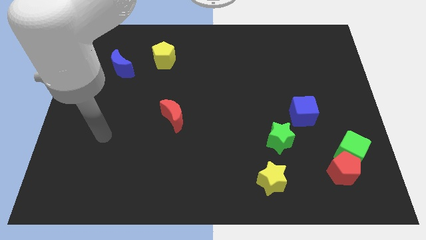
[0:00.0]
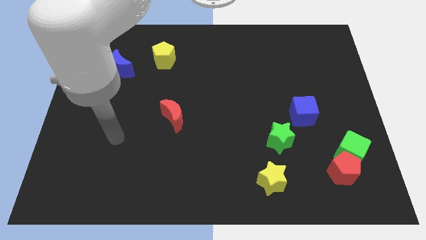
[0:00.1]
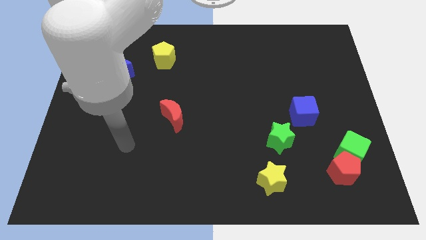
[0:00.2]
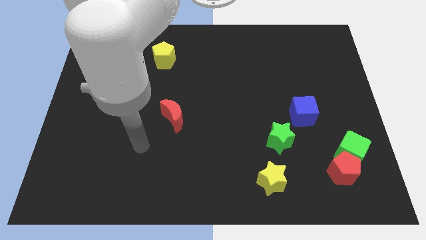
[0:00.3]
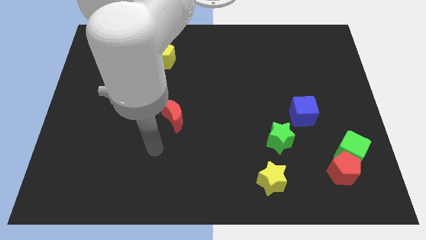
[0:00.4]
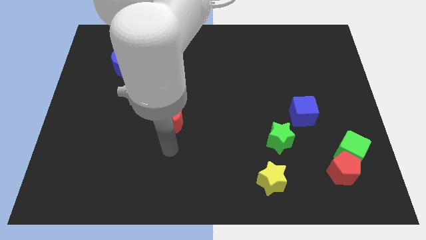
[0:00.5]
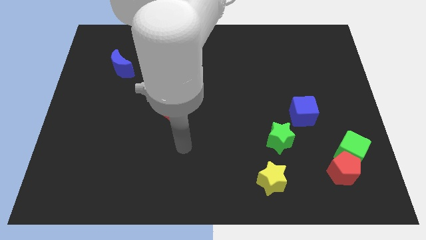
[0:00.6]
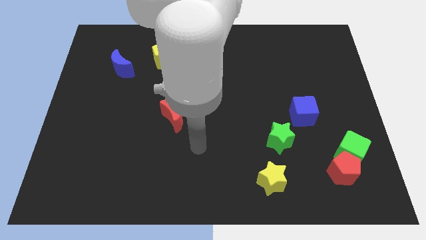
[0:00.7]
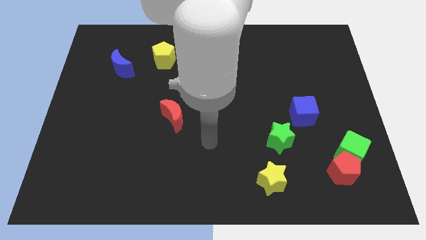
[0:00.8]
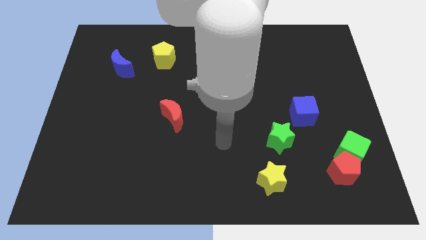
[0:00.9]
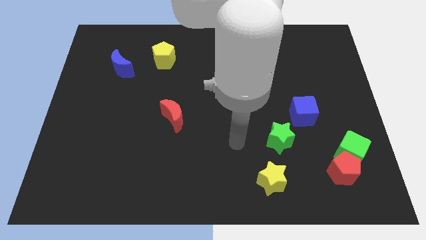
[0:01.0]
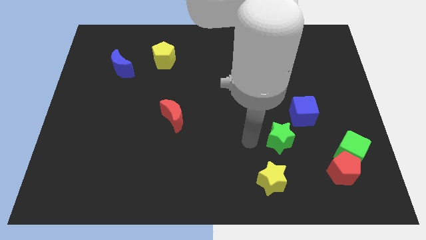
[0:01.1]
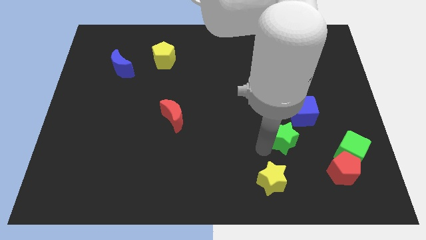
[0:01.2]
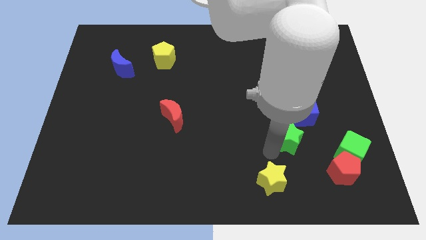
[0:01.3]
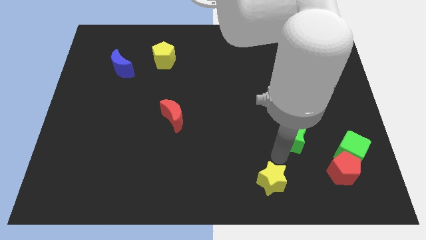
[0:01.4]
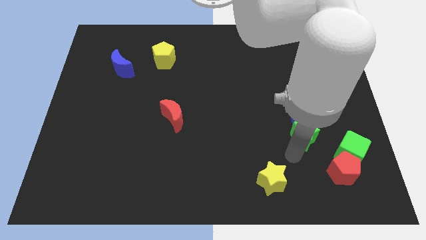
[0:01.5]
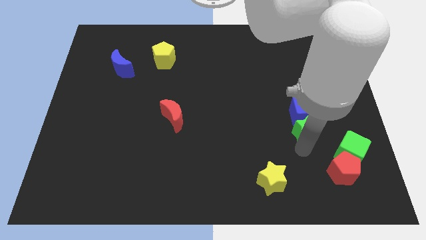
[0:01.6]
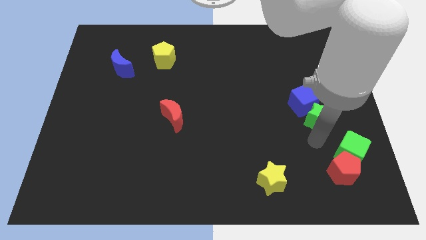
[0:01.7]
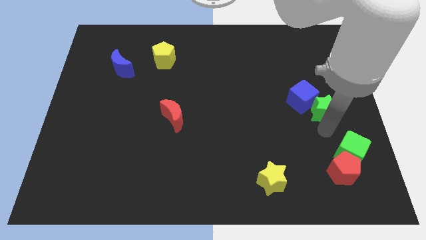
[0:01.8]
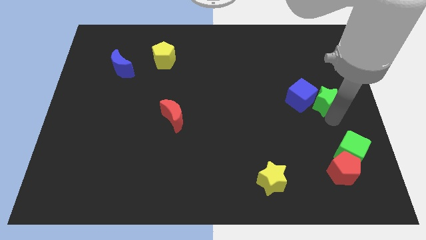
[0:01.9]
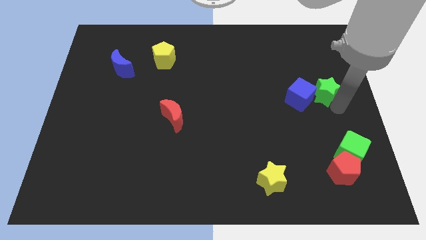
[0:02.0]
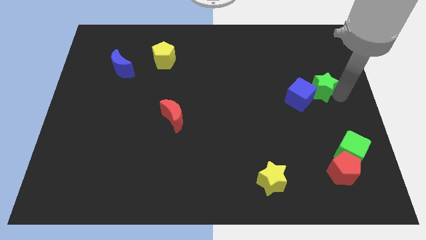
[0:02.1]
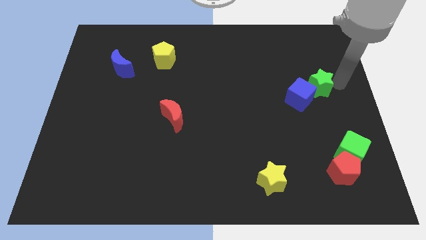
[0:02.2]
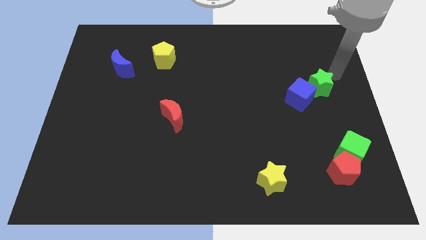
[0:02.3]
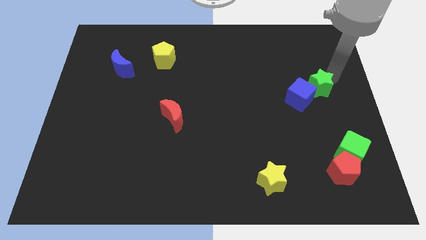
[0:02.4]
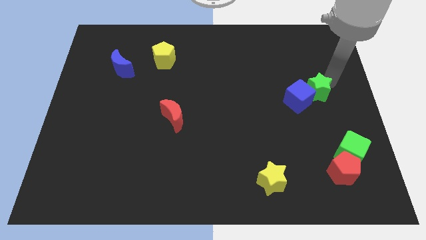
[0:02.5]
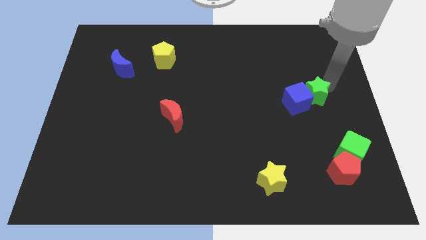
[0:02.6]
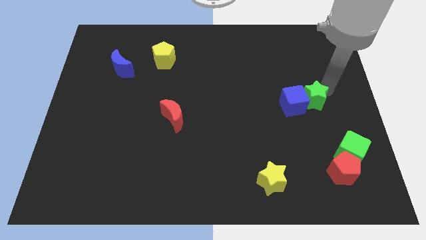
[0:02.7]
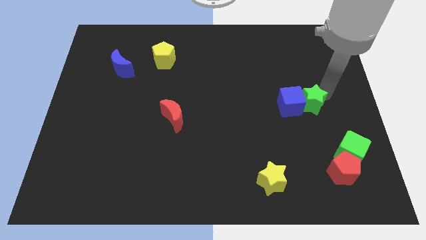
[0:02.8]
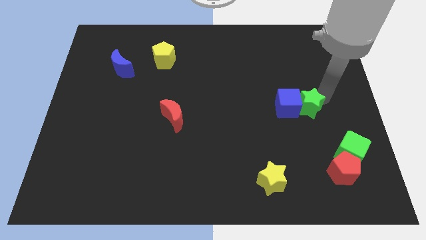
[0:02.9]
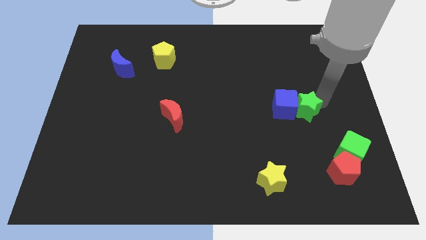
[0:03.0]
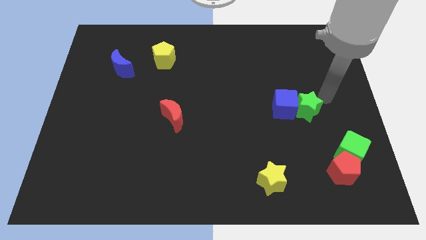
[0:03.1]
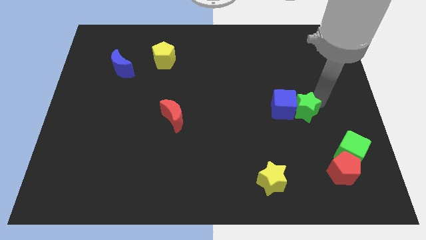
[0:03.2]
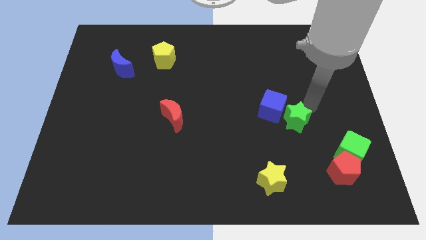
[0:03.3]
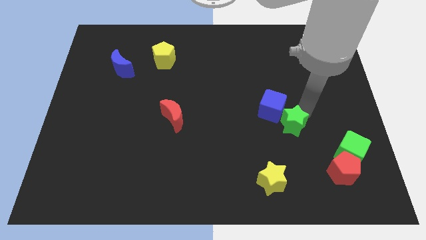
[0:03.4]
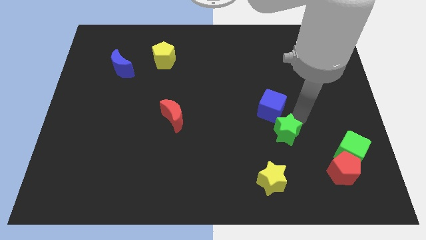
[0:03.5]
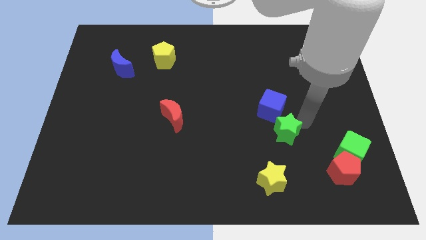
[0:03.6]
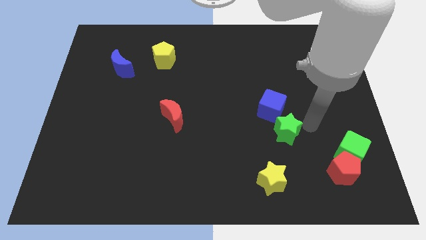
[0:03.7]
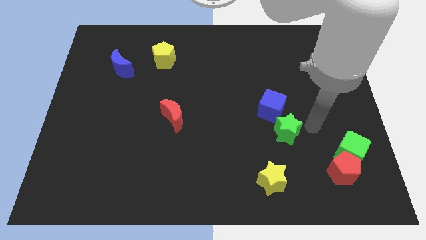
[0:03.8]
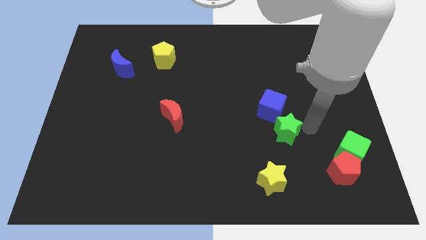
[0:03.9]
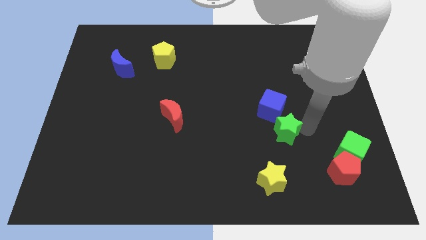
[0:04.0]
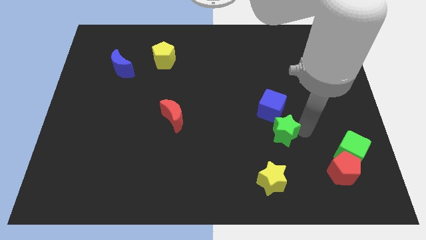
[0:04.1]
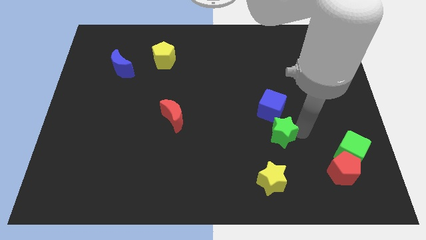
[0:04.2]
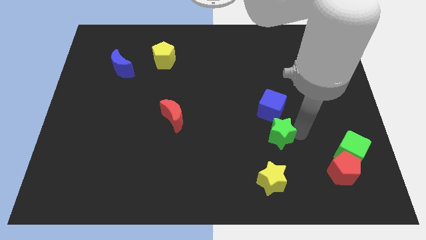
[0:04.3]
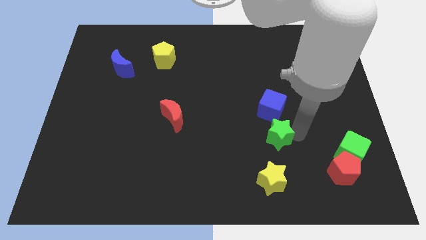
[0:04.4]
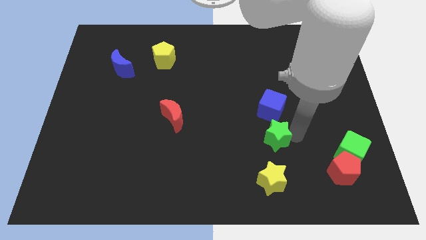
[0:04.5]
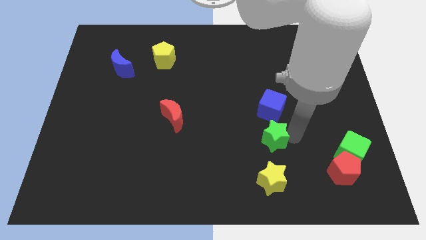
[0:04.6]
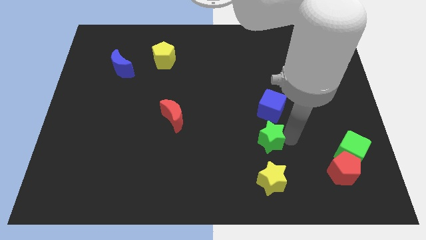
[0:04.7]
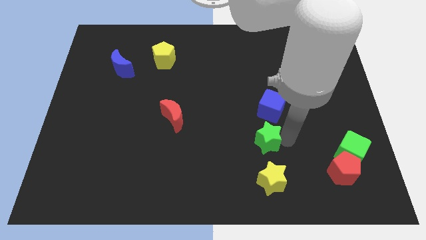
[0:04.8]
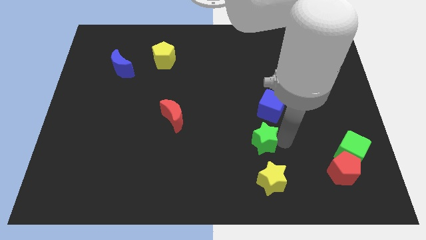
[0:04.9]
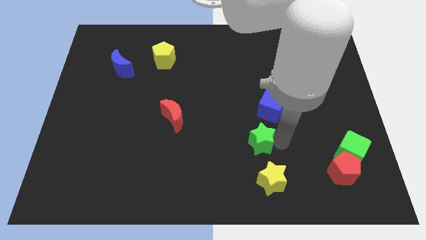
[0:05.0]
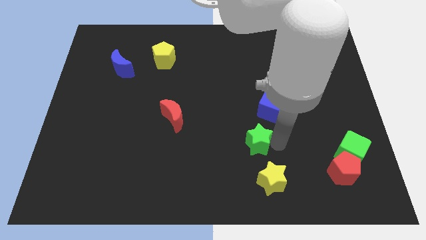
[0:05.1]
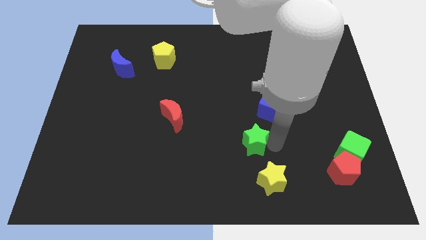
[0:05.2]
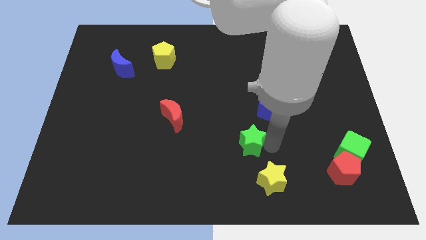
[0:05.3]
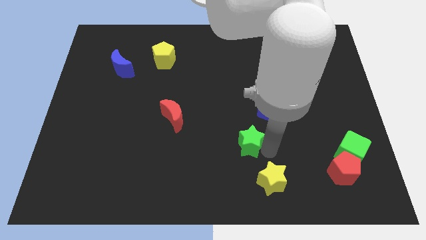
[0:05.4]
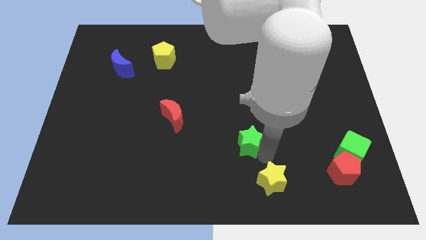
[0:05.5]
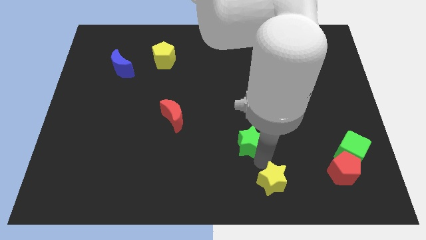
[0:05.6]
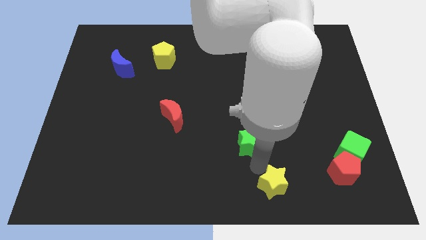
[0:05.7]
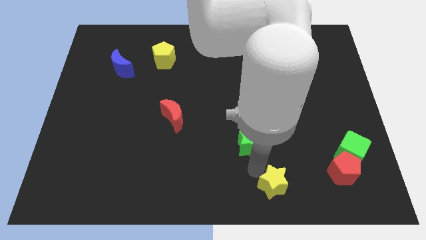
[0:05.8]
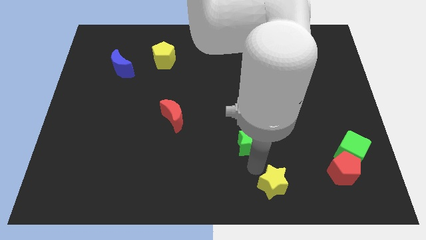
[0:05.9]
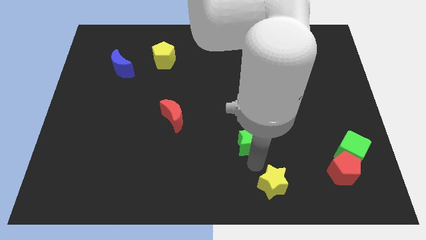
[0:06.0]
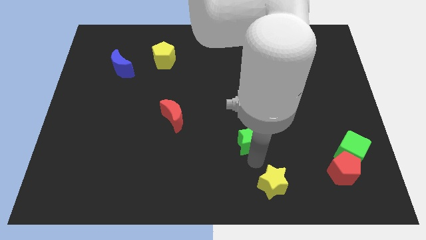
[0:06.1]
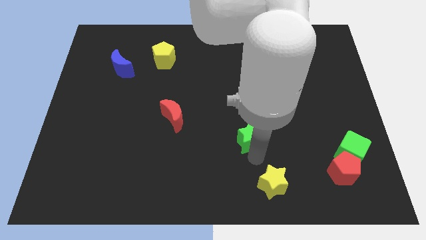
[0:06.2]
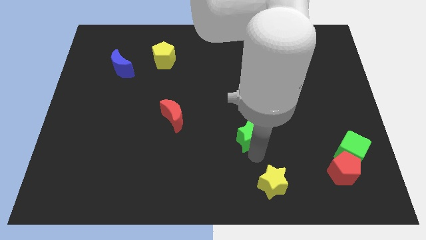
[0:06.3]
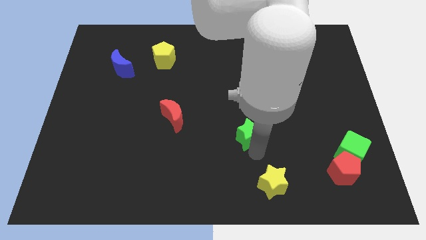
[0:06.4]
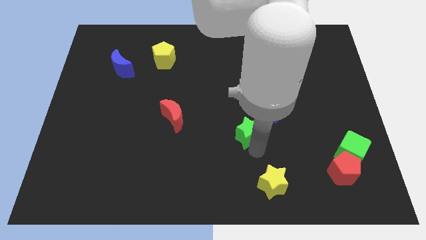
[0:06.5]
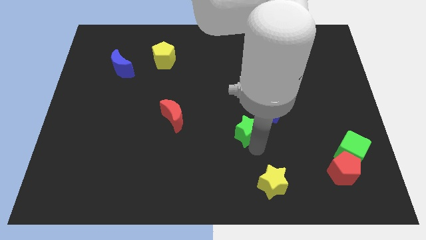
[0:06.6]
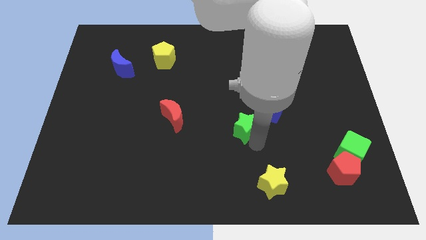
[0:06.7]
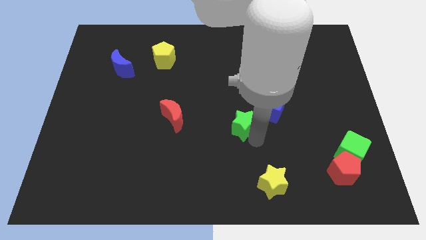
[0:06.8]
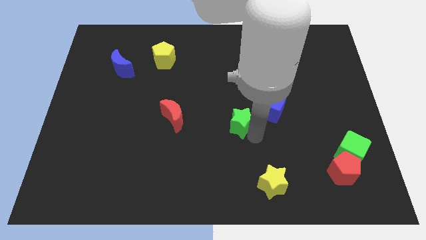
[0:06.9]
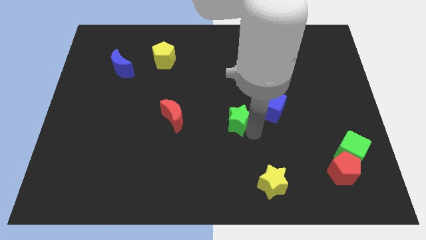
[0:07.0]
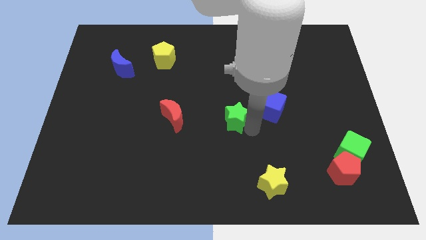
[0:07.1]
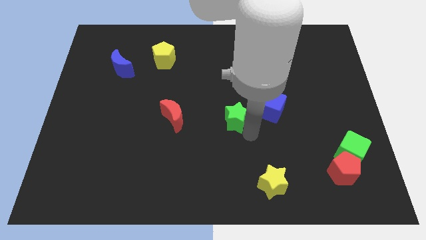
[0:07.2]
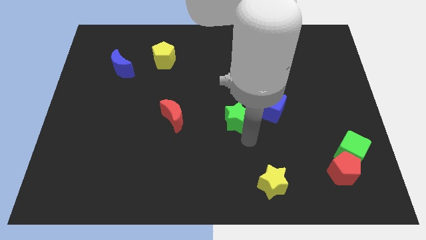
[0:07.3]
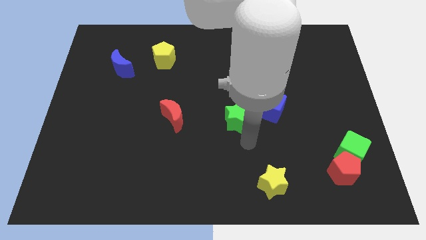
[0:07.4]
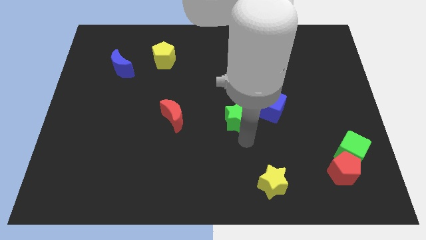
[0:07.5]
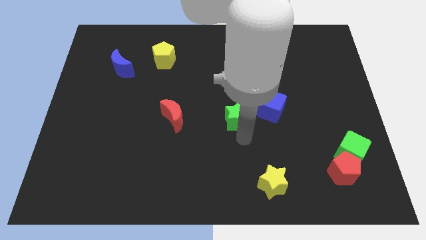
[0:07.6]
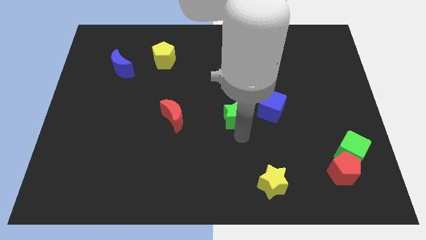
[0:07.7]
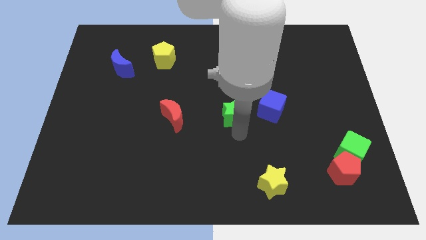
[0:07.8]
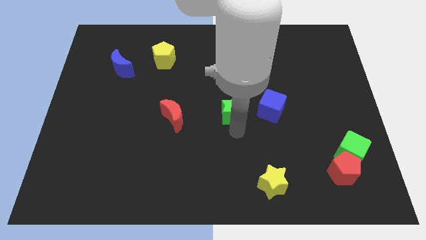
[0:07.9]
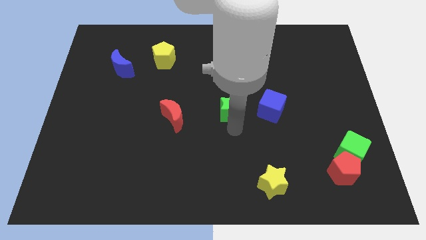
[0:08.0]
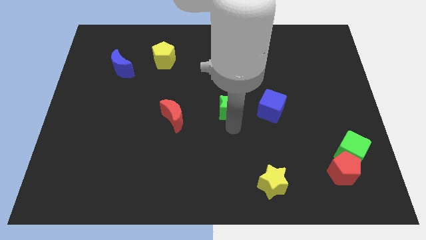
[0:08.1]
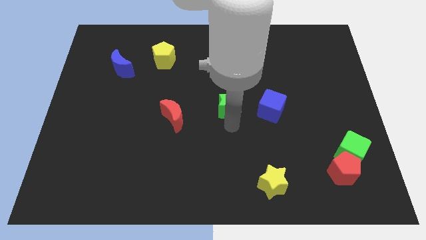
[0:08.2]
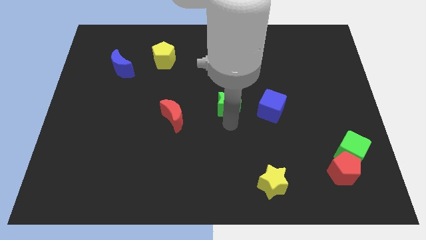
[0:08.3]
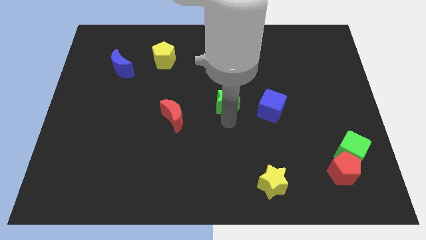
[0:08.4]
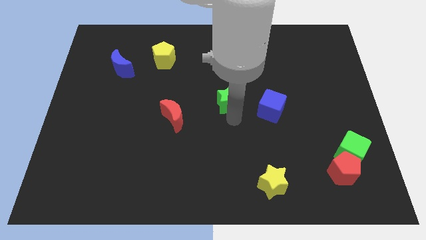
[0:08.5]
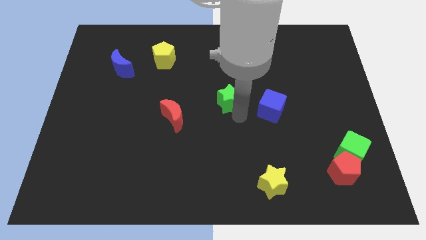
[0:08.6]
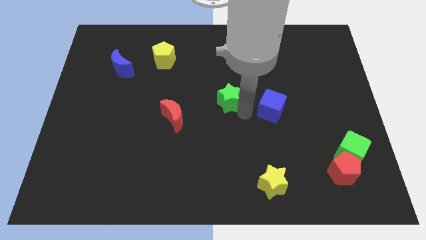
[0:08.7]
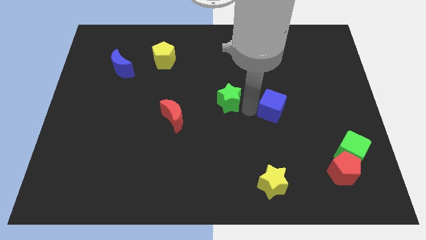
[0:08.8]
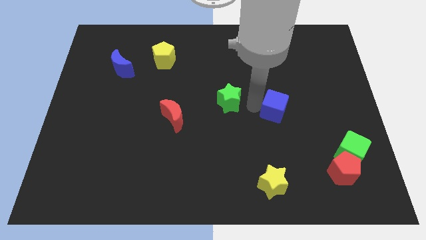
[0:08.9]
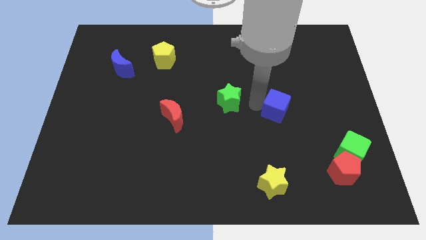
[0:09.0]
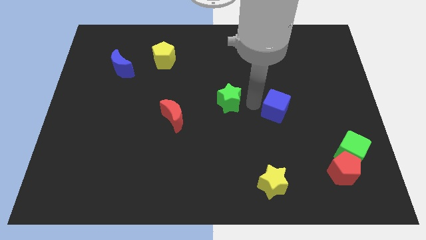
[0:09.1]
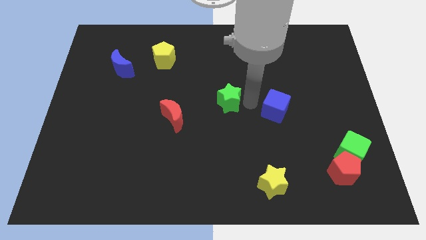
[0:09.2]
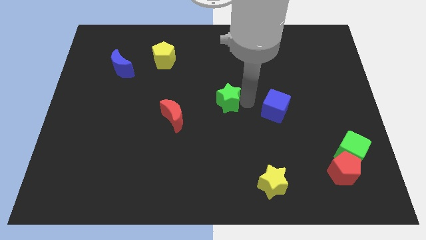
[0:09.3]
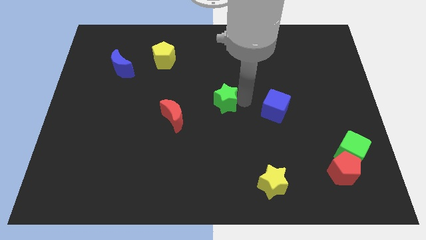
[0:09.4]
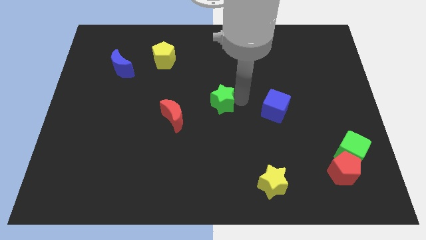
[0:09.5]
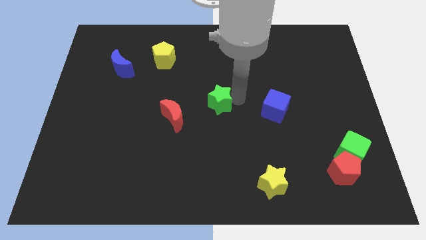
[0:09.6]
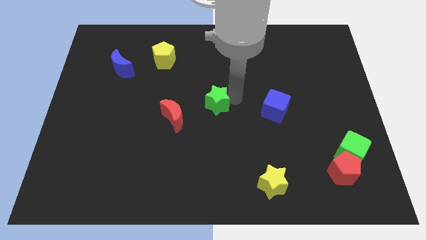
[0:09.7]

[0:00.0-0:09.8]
slide the green star to the top right side of the red moon
